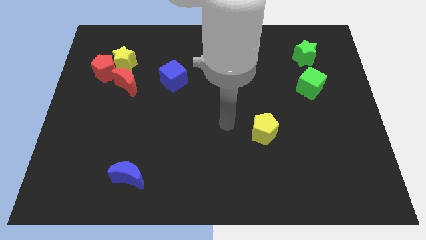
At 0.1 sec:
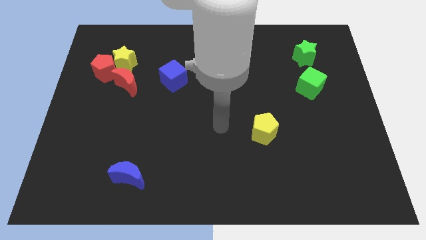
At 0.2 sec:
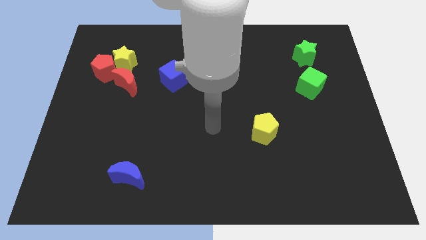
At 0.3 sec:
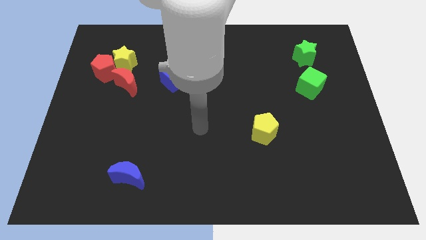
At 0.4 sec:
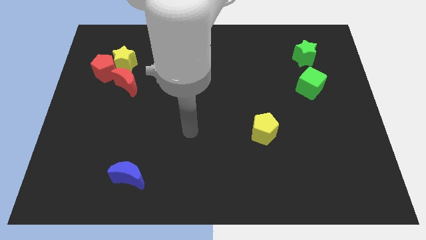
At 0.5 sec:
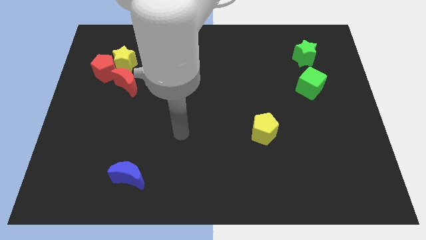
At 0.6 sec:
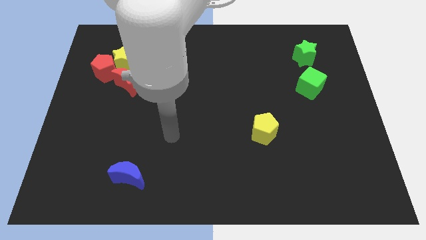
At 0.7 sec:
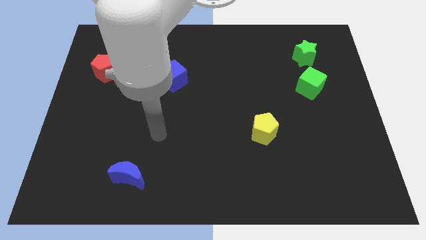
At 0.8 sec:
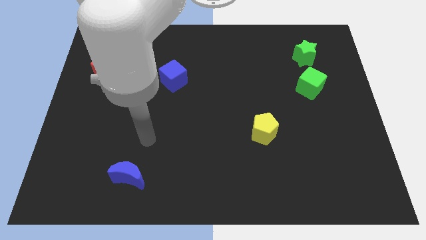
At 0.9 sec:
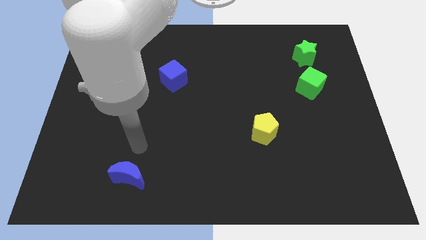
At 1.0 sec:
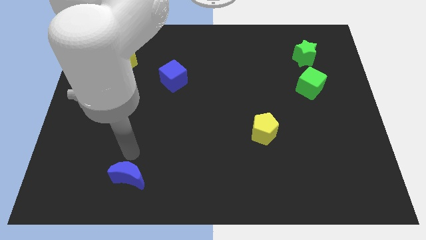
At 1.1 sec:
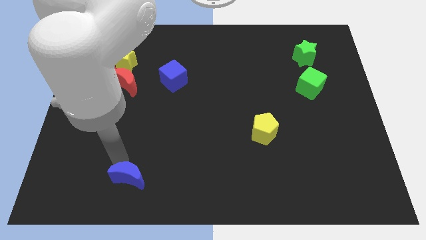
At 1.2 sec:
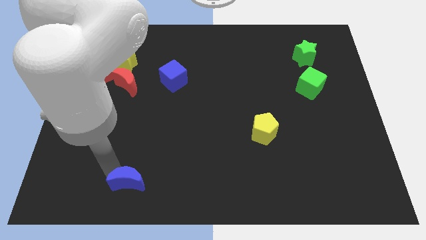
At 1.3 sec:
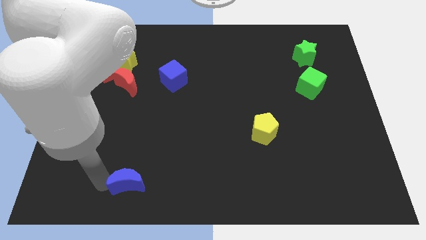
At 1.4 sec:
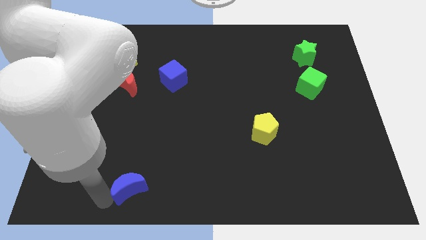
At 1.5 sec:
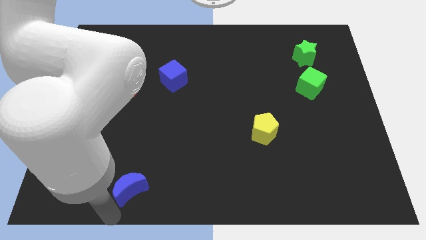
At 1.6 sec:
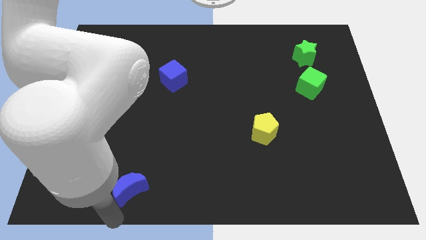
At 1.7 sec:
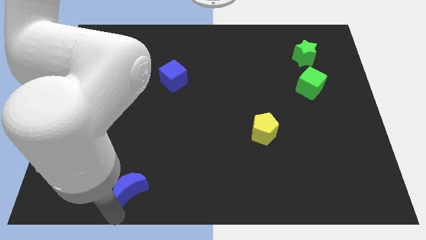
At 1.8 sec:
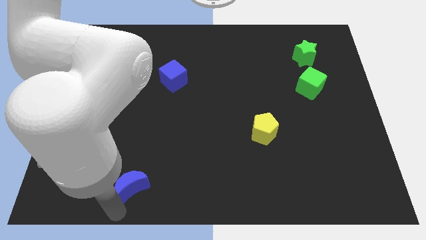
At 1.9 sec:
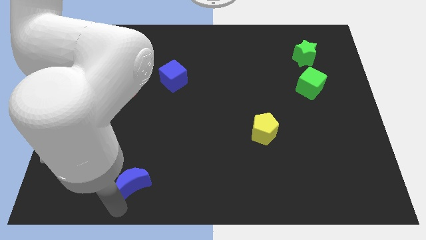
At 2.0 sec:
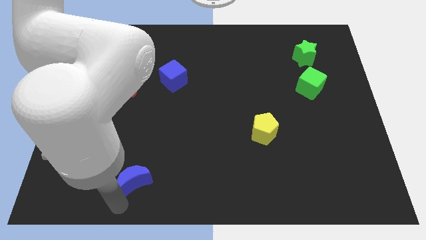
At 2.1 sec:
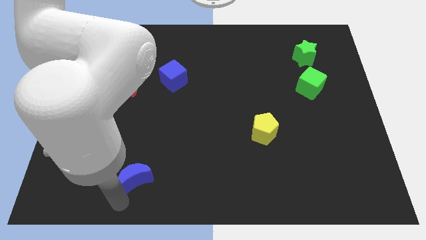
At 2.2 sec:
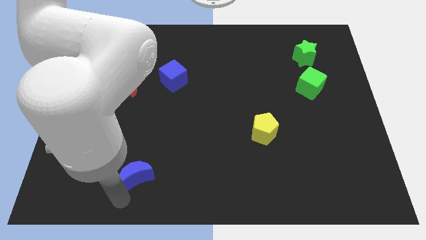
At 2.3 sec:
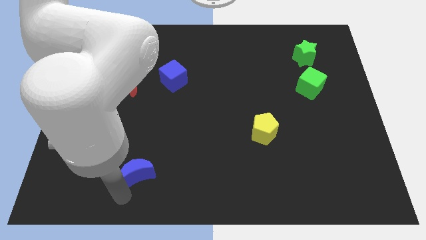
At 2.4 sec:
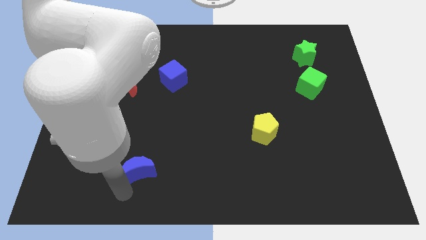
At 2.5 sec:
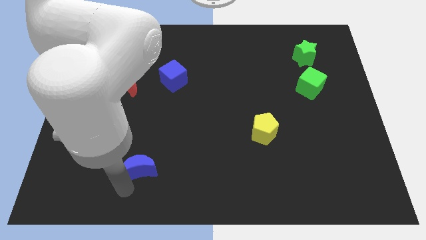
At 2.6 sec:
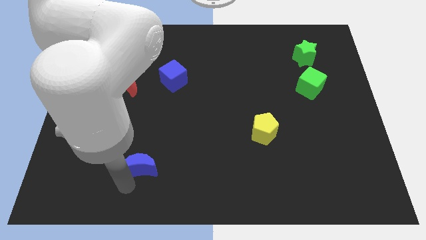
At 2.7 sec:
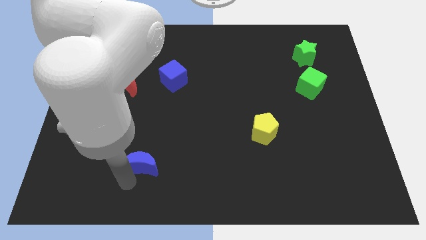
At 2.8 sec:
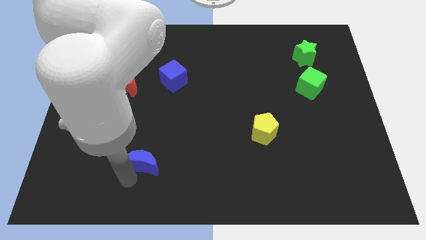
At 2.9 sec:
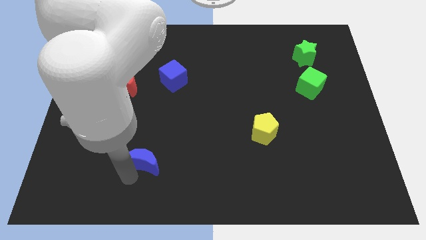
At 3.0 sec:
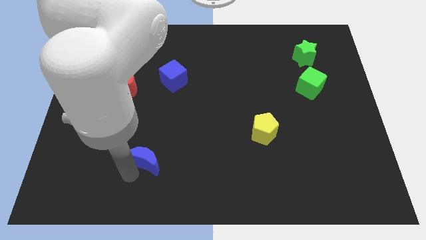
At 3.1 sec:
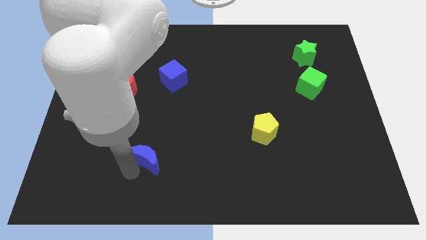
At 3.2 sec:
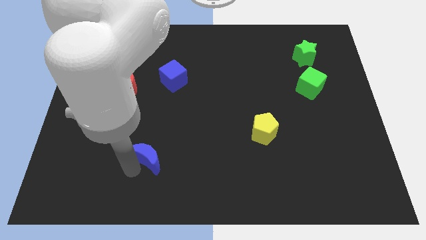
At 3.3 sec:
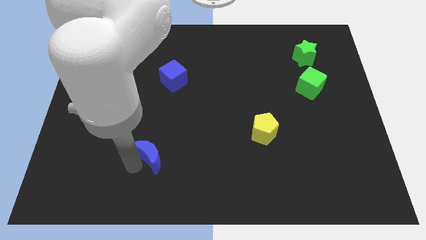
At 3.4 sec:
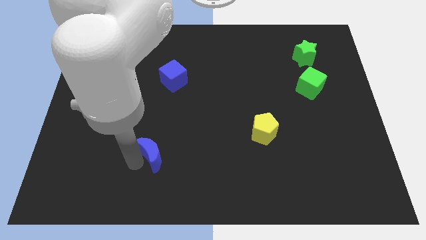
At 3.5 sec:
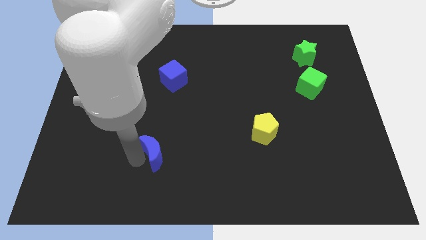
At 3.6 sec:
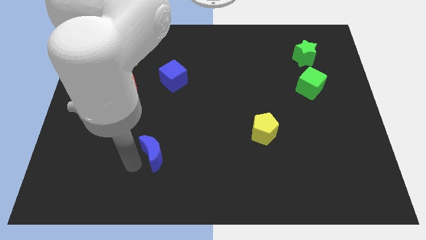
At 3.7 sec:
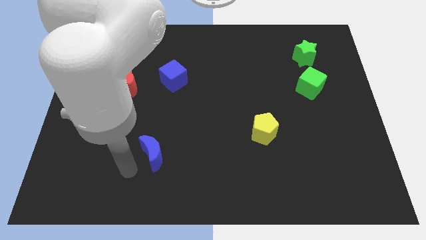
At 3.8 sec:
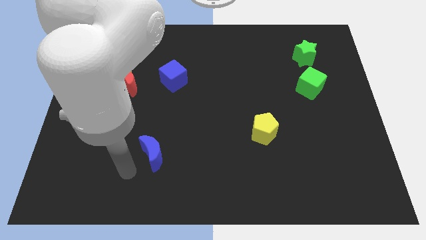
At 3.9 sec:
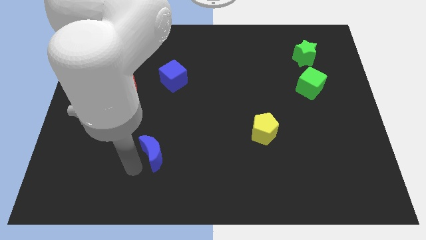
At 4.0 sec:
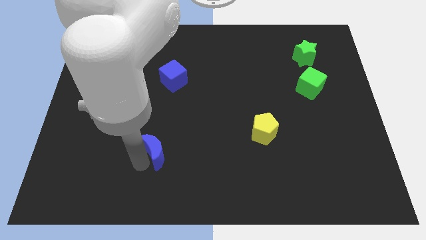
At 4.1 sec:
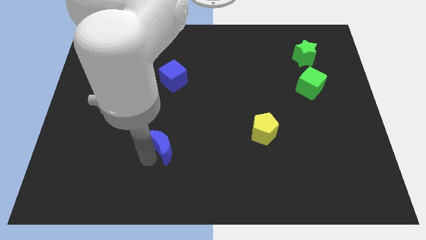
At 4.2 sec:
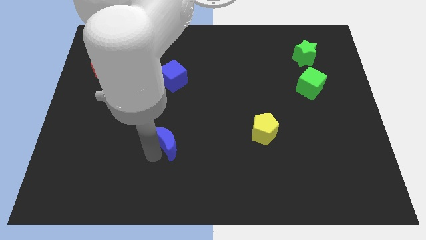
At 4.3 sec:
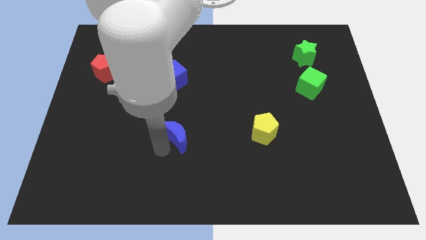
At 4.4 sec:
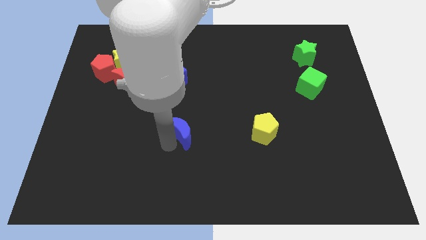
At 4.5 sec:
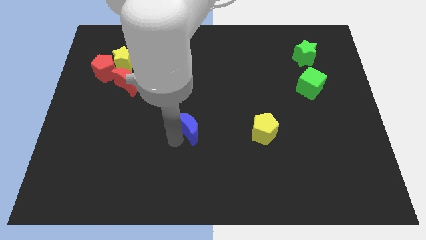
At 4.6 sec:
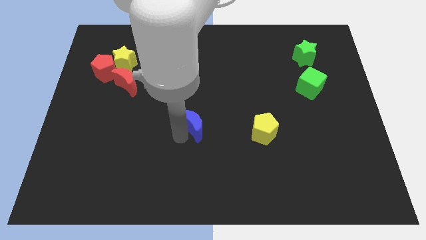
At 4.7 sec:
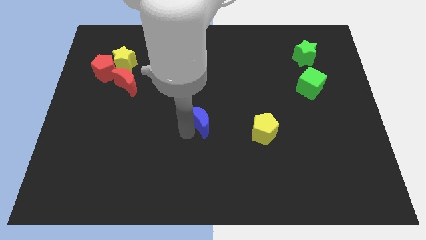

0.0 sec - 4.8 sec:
move the blue moon upwards and to the right diagonally

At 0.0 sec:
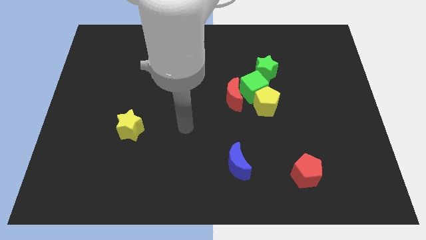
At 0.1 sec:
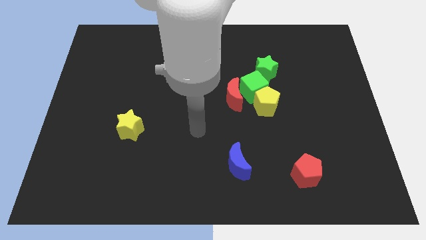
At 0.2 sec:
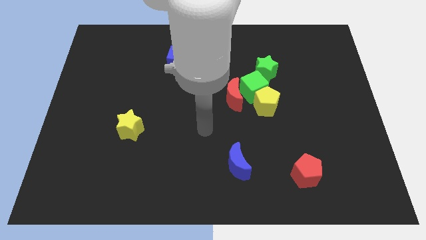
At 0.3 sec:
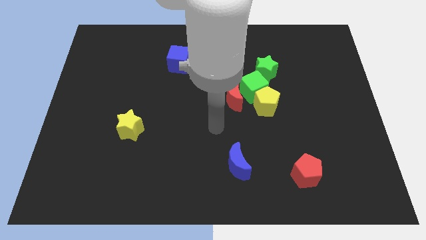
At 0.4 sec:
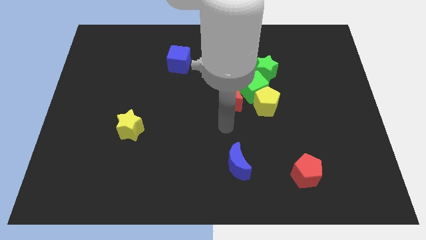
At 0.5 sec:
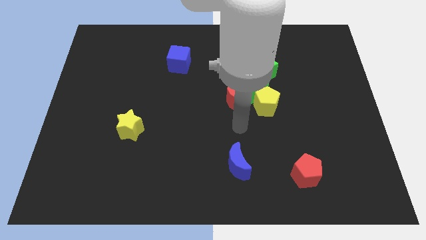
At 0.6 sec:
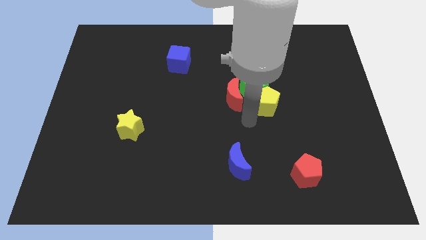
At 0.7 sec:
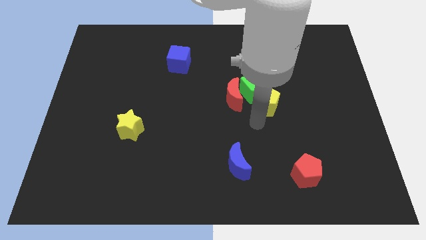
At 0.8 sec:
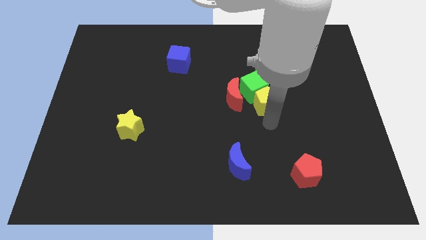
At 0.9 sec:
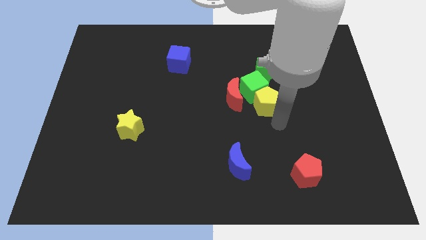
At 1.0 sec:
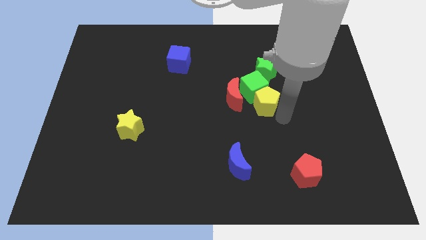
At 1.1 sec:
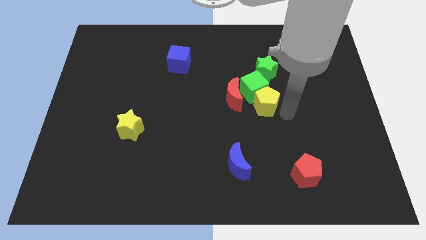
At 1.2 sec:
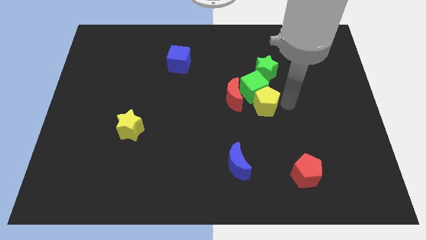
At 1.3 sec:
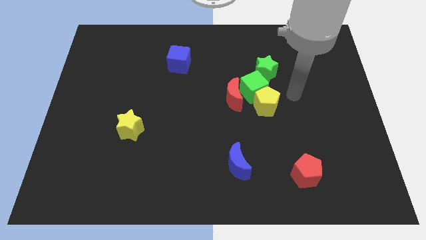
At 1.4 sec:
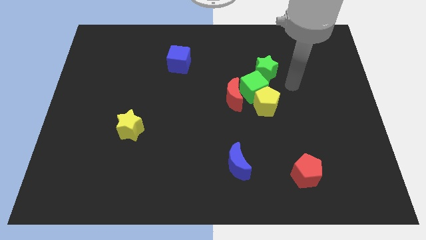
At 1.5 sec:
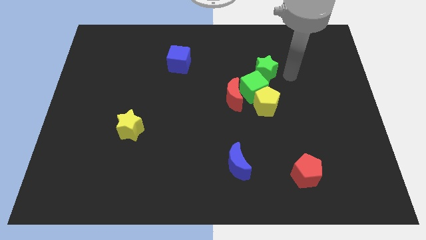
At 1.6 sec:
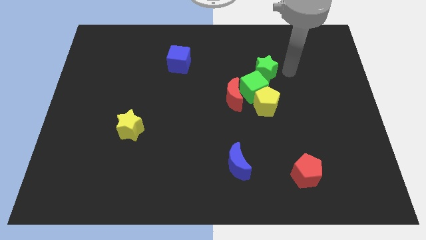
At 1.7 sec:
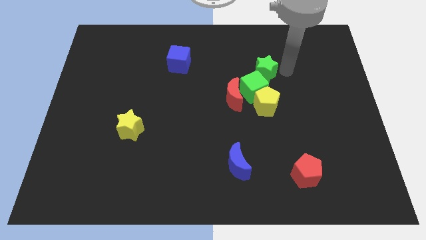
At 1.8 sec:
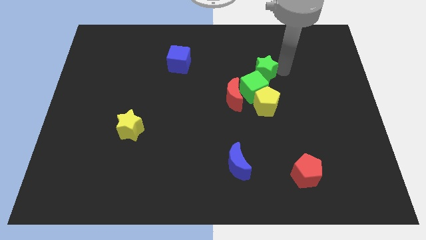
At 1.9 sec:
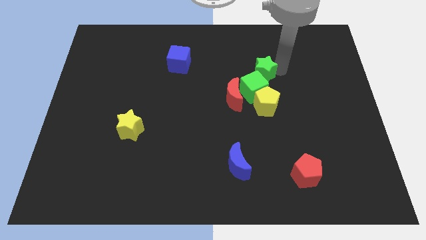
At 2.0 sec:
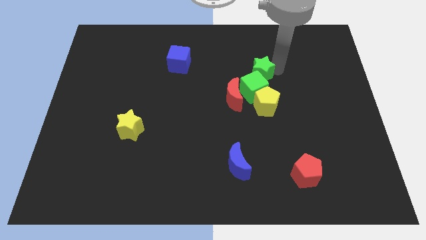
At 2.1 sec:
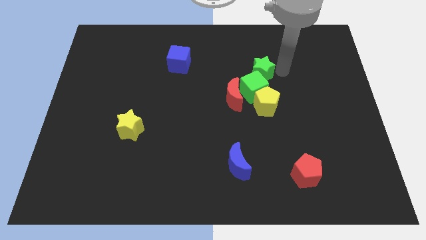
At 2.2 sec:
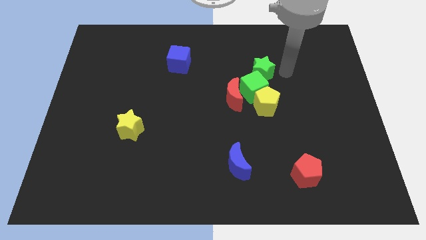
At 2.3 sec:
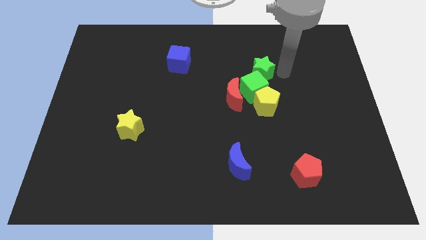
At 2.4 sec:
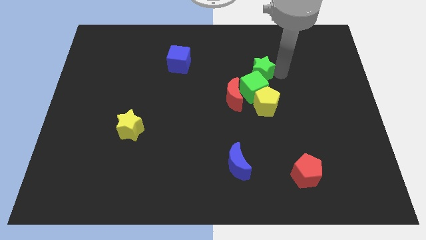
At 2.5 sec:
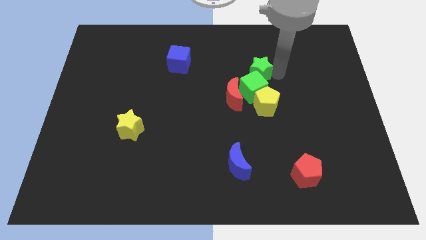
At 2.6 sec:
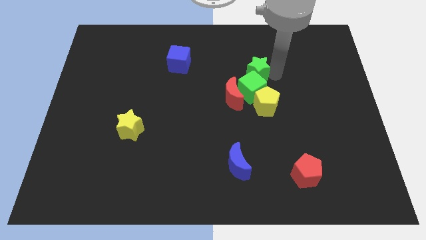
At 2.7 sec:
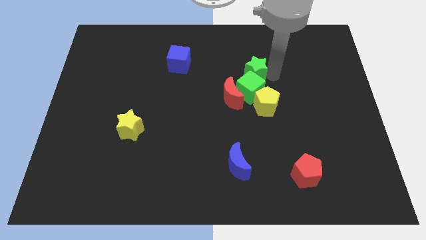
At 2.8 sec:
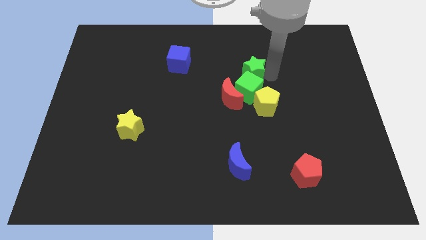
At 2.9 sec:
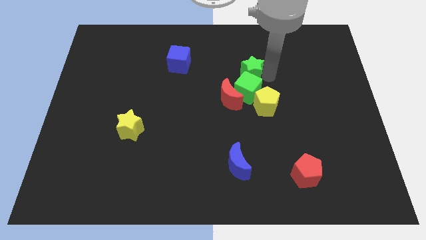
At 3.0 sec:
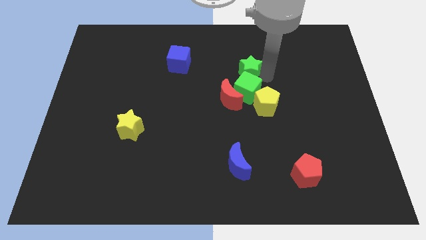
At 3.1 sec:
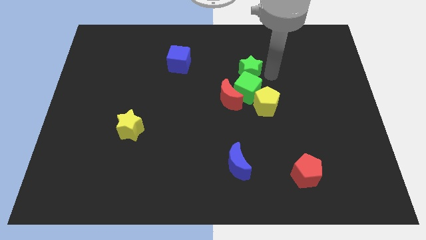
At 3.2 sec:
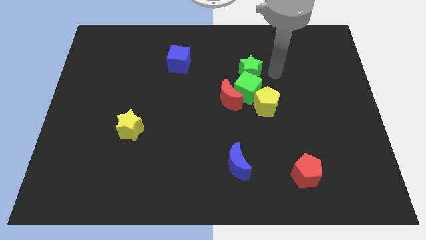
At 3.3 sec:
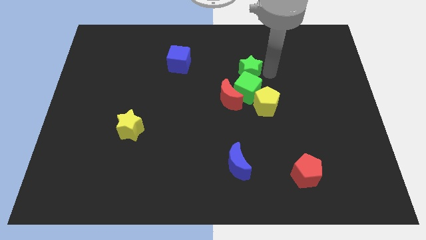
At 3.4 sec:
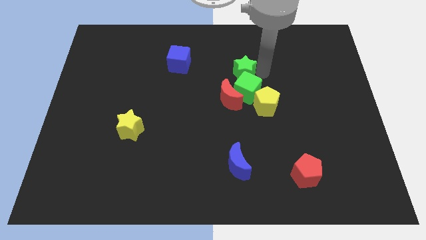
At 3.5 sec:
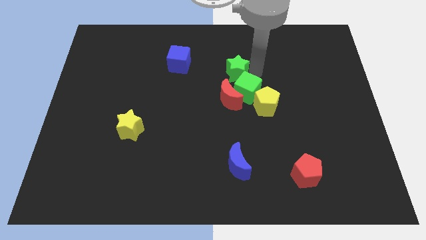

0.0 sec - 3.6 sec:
push the green star to the left slightly
